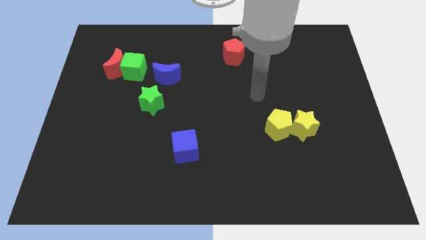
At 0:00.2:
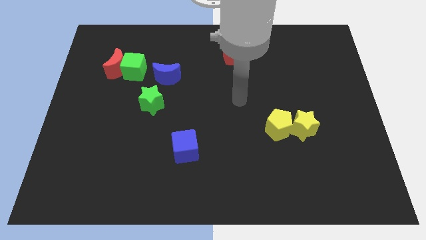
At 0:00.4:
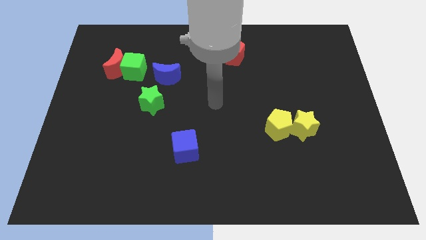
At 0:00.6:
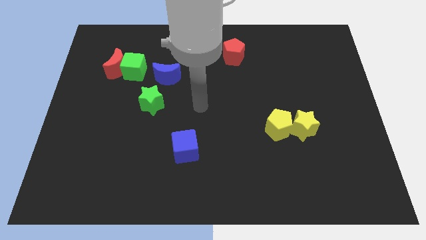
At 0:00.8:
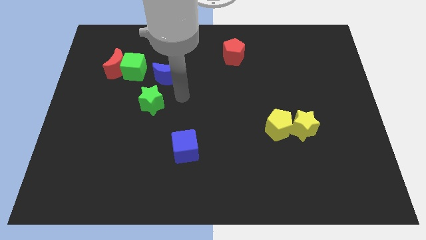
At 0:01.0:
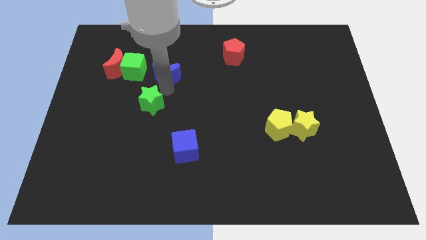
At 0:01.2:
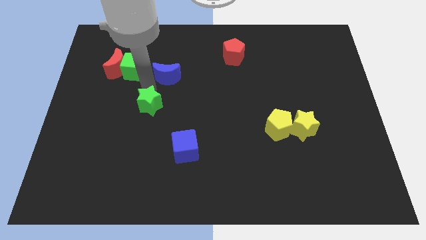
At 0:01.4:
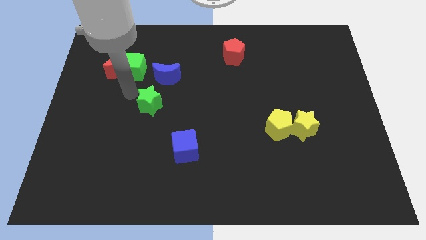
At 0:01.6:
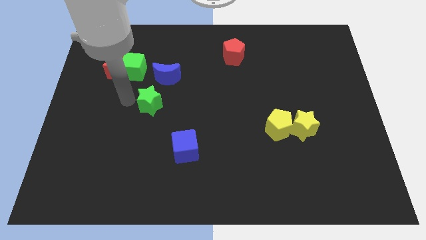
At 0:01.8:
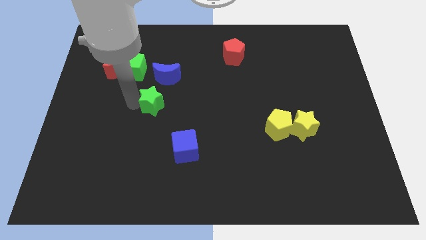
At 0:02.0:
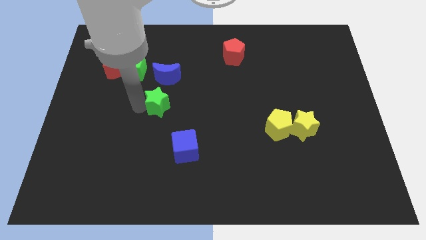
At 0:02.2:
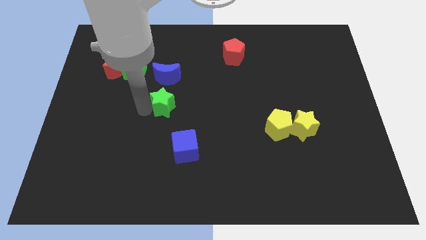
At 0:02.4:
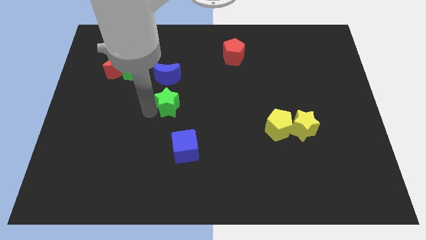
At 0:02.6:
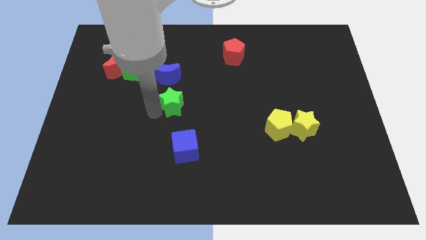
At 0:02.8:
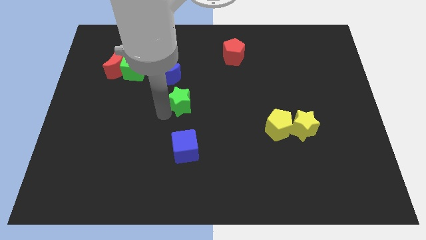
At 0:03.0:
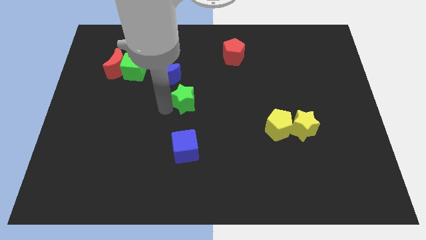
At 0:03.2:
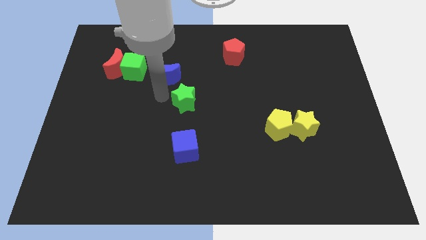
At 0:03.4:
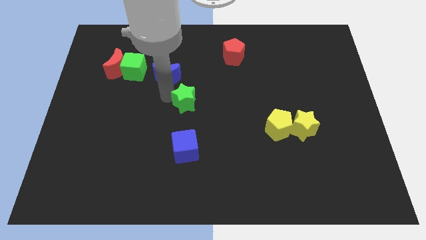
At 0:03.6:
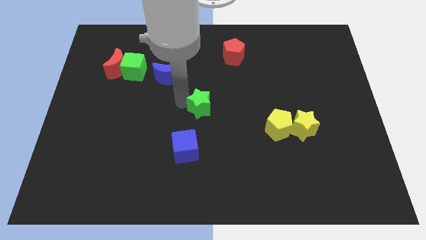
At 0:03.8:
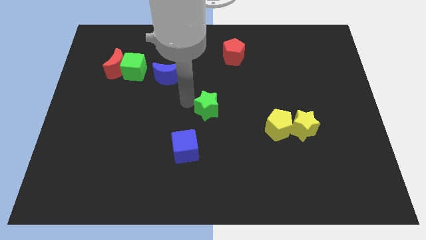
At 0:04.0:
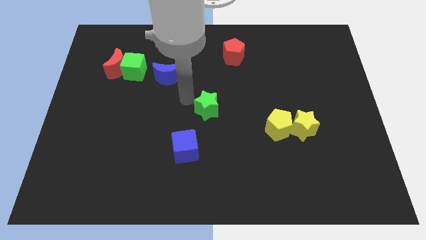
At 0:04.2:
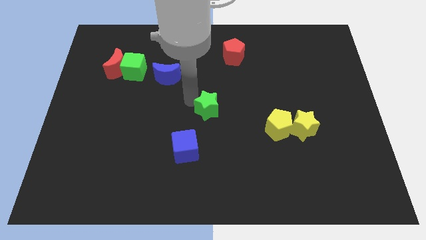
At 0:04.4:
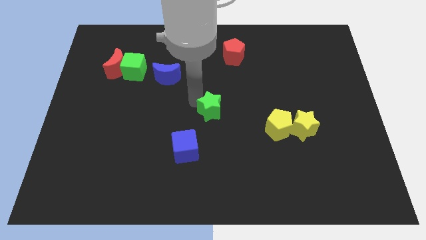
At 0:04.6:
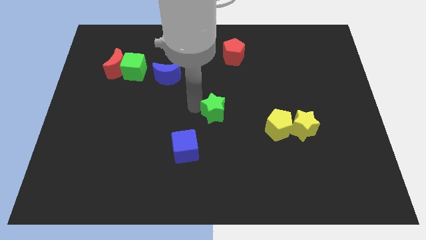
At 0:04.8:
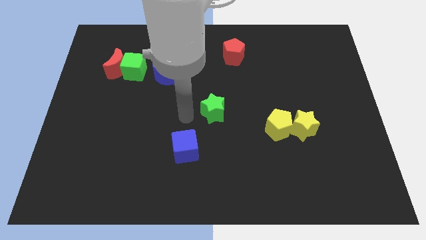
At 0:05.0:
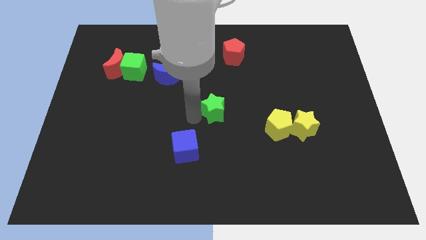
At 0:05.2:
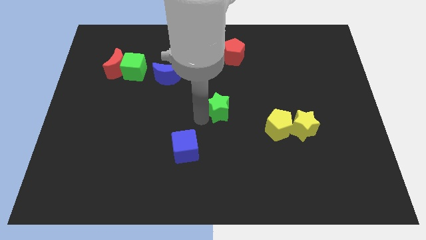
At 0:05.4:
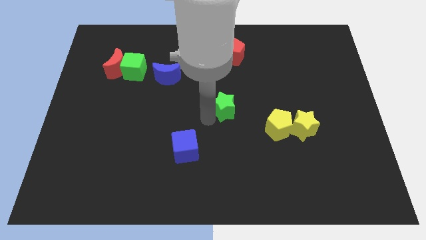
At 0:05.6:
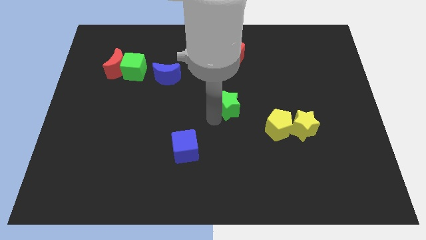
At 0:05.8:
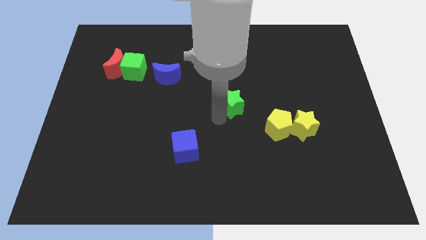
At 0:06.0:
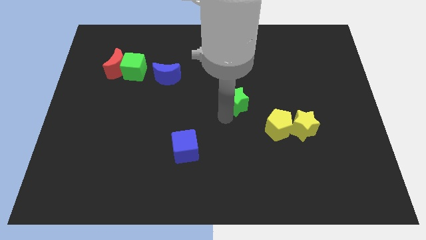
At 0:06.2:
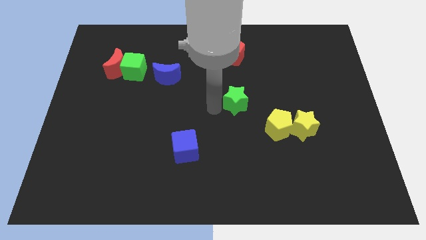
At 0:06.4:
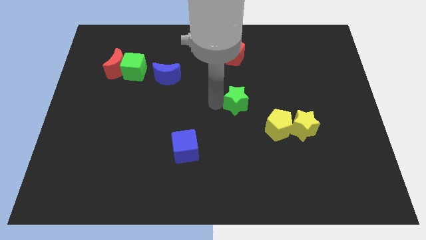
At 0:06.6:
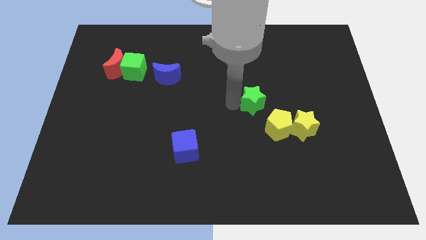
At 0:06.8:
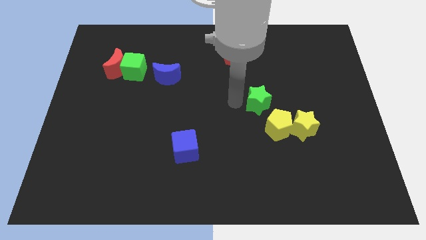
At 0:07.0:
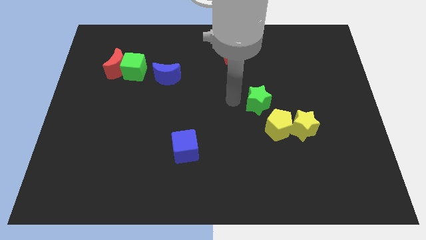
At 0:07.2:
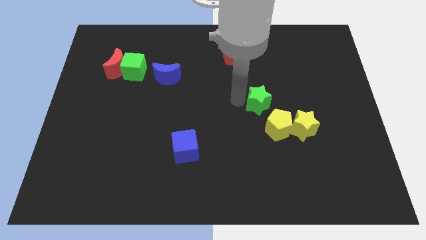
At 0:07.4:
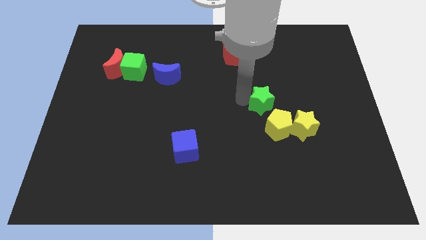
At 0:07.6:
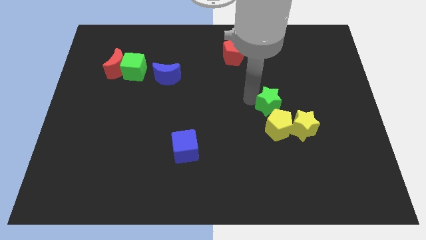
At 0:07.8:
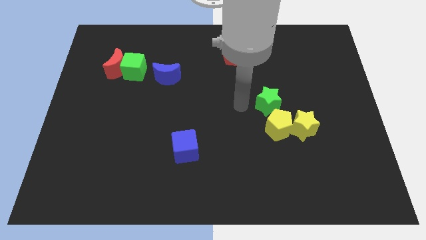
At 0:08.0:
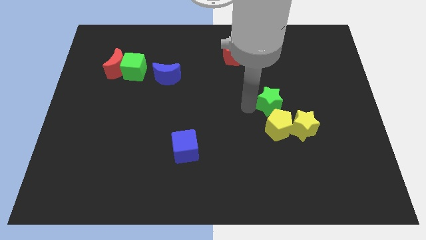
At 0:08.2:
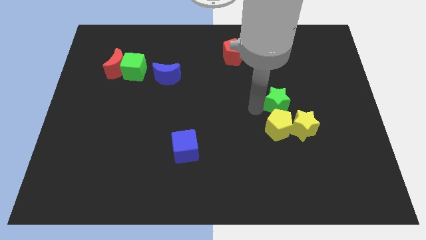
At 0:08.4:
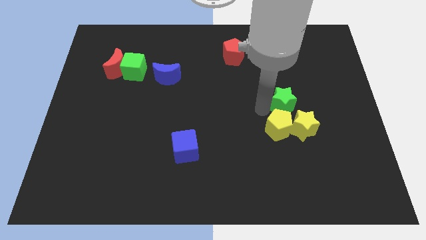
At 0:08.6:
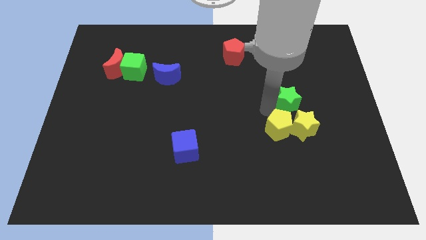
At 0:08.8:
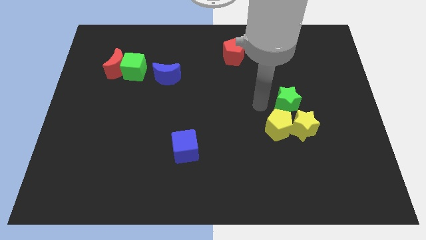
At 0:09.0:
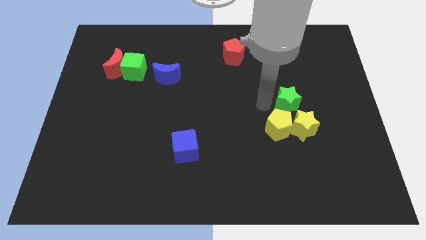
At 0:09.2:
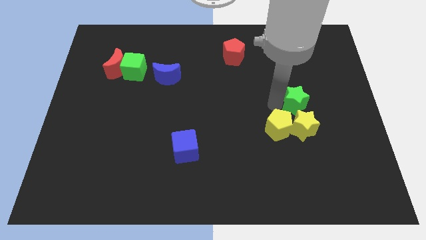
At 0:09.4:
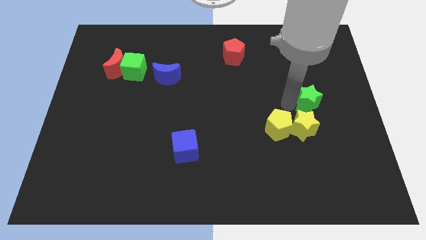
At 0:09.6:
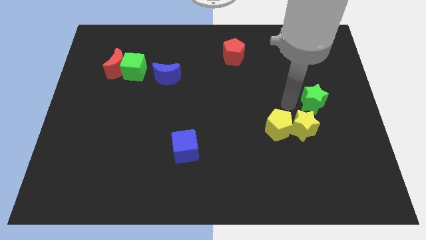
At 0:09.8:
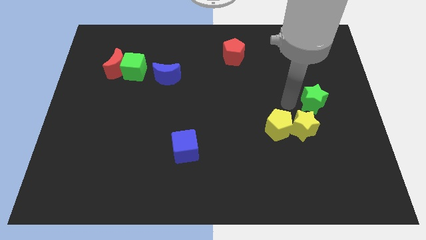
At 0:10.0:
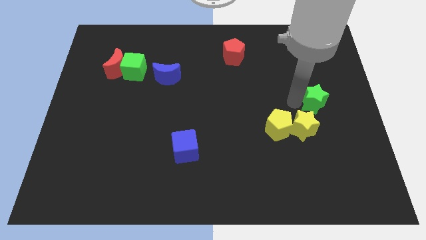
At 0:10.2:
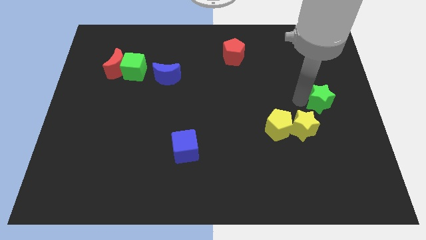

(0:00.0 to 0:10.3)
push the green star to the center right

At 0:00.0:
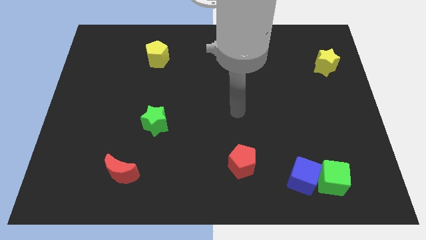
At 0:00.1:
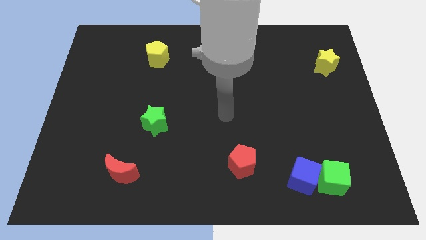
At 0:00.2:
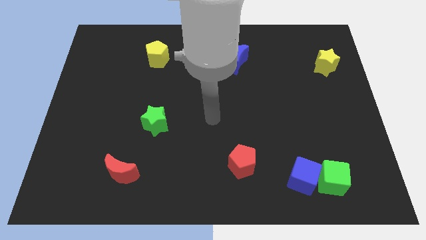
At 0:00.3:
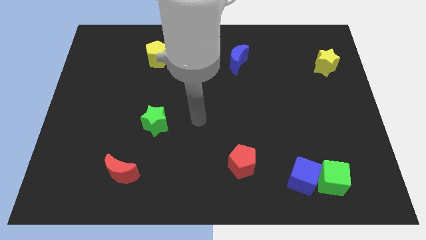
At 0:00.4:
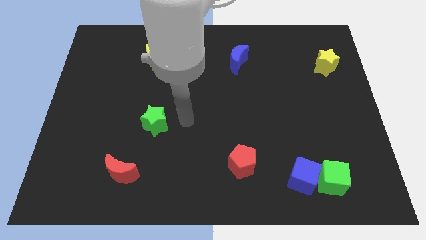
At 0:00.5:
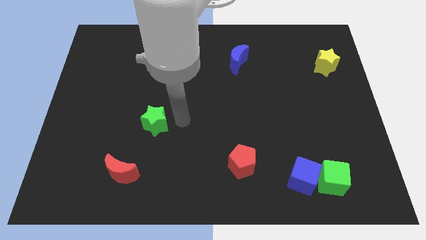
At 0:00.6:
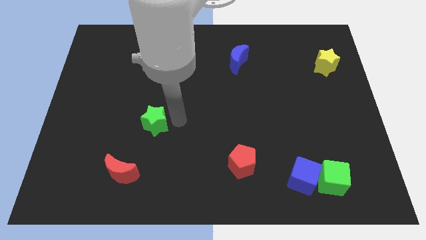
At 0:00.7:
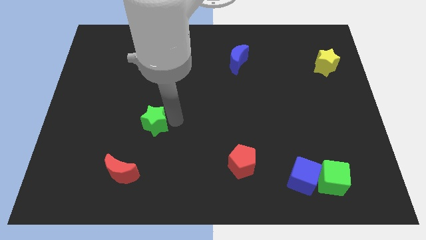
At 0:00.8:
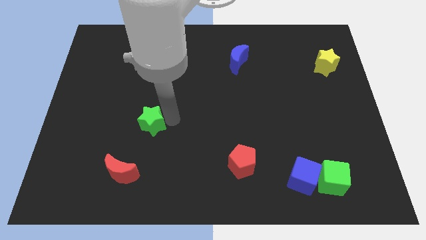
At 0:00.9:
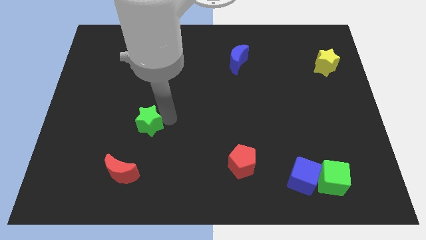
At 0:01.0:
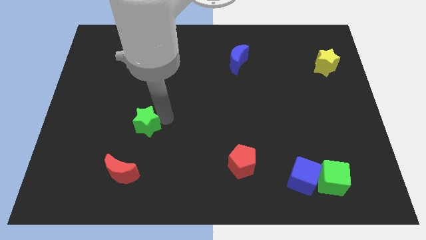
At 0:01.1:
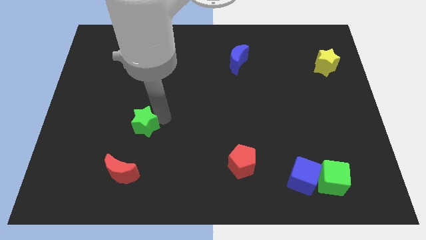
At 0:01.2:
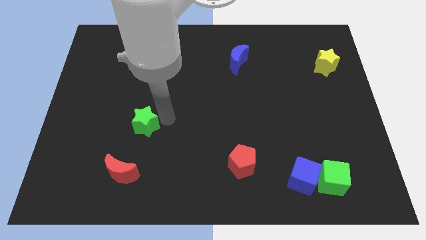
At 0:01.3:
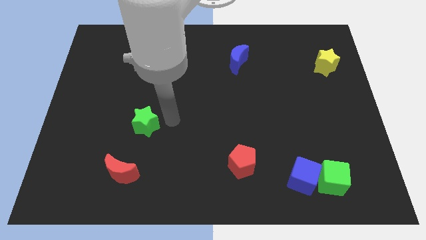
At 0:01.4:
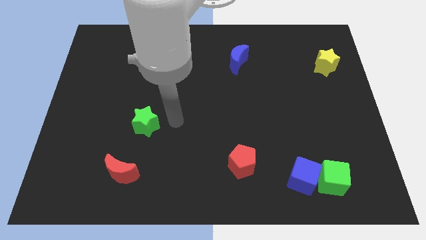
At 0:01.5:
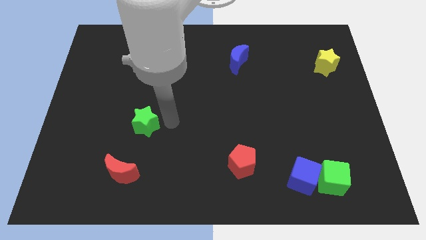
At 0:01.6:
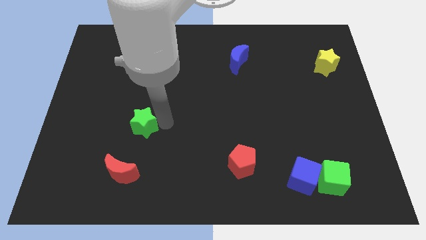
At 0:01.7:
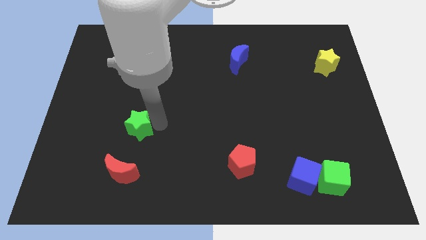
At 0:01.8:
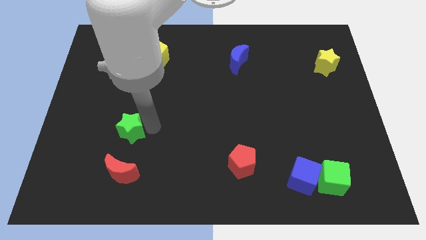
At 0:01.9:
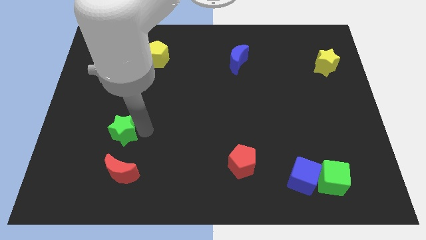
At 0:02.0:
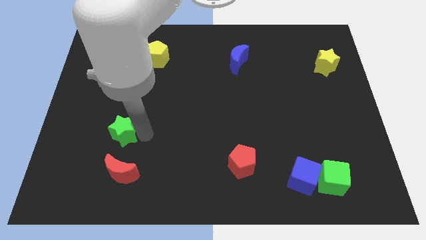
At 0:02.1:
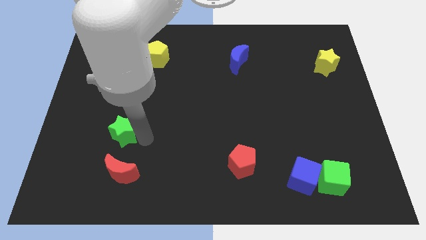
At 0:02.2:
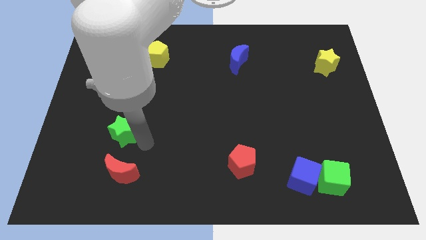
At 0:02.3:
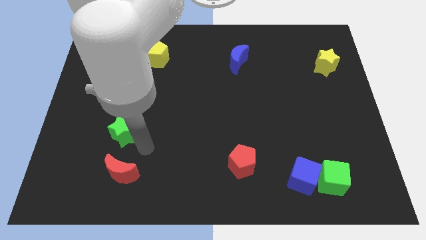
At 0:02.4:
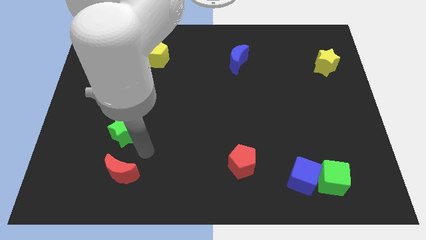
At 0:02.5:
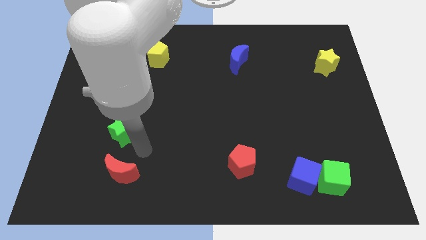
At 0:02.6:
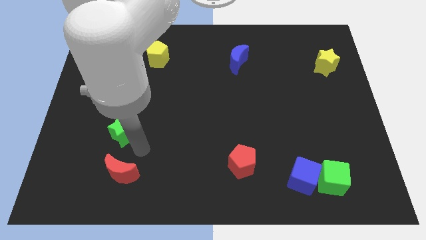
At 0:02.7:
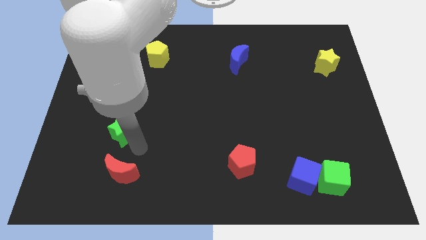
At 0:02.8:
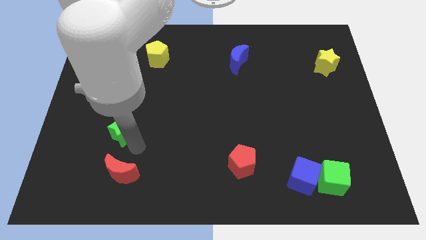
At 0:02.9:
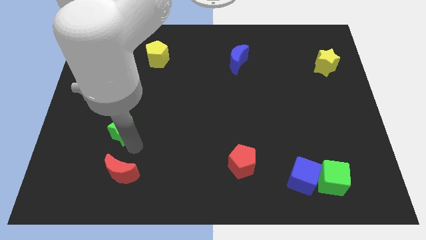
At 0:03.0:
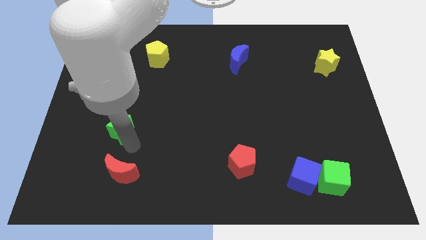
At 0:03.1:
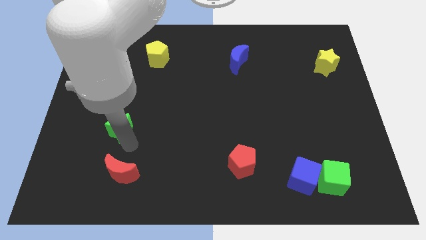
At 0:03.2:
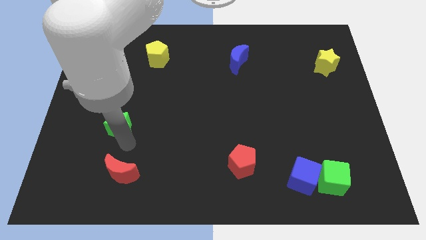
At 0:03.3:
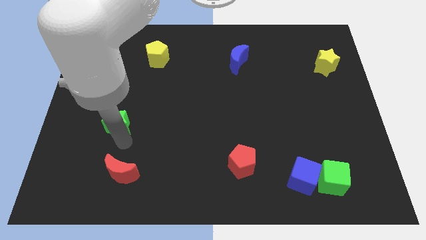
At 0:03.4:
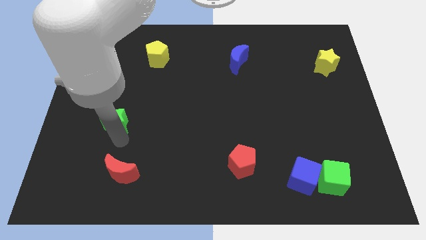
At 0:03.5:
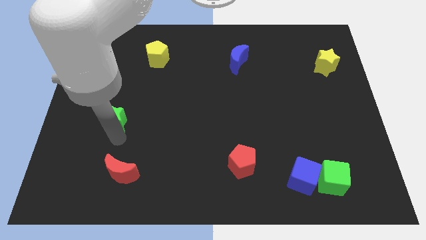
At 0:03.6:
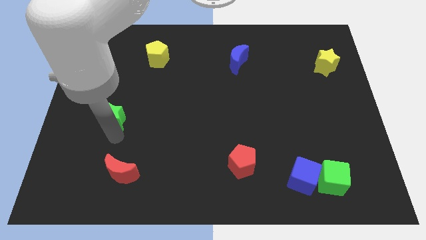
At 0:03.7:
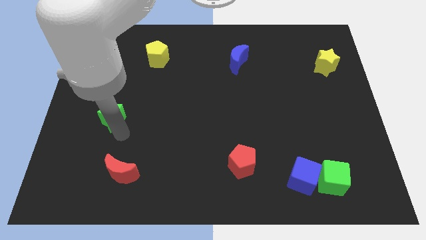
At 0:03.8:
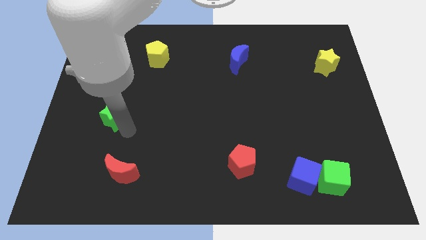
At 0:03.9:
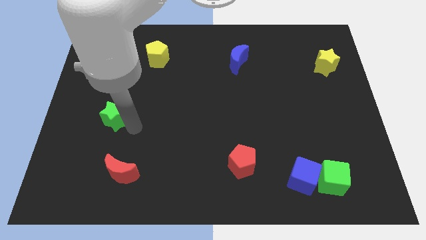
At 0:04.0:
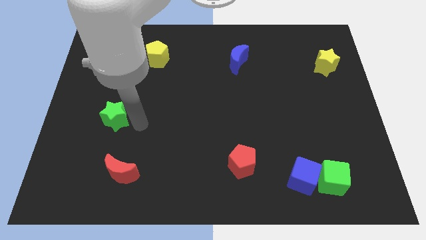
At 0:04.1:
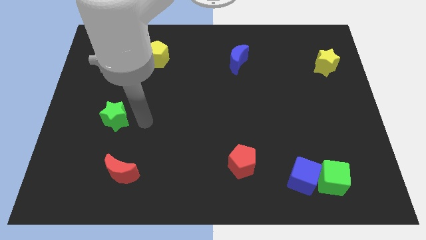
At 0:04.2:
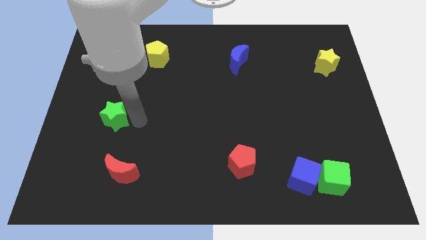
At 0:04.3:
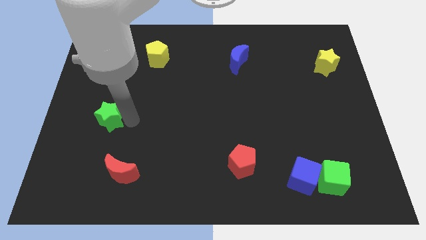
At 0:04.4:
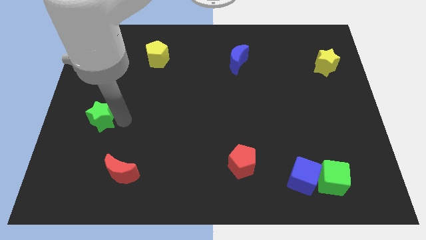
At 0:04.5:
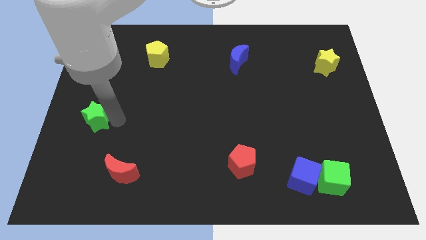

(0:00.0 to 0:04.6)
slide the green star to the center left
